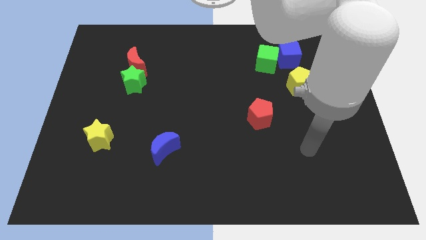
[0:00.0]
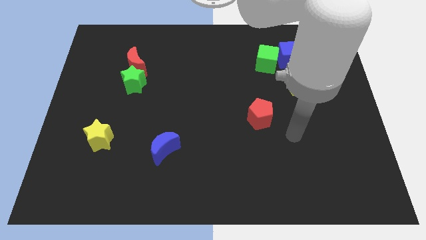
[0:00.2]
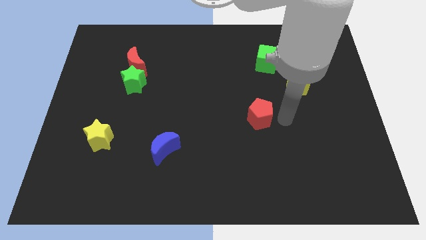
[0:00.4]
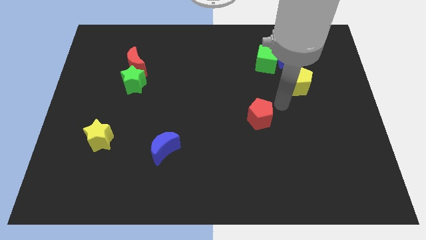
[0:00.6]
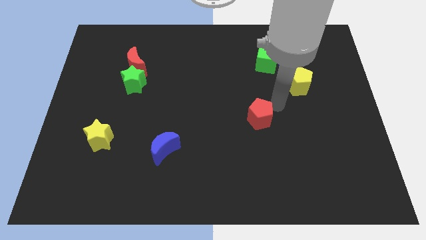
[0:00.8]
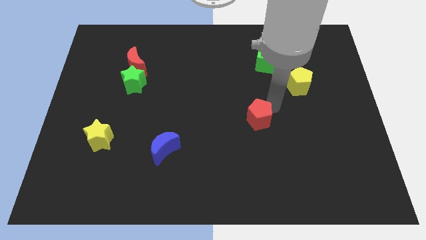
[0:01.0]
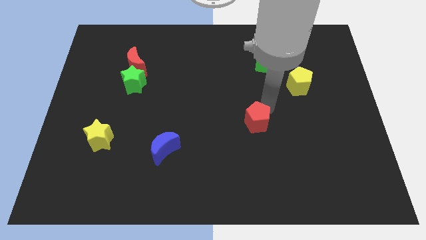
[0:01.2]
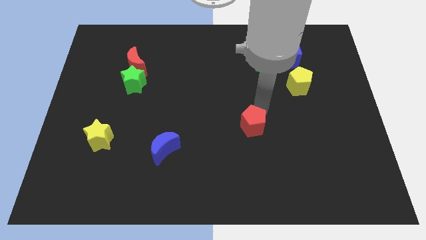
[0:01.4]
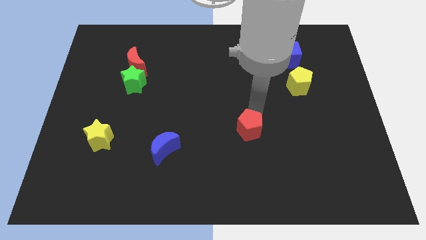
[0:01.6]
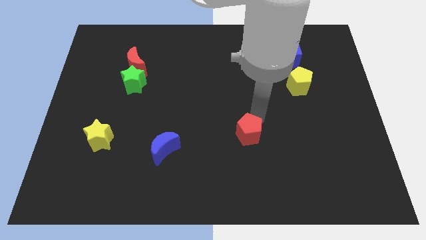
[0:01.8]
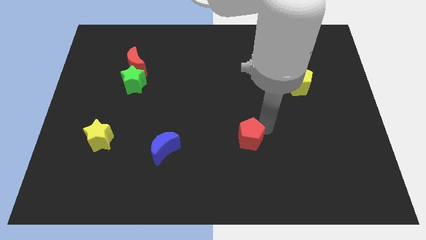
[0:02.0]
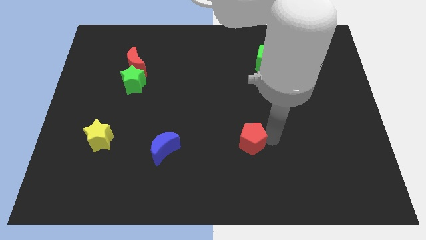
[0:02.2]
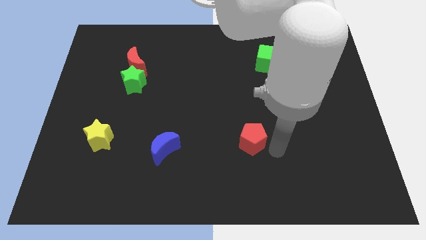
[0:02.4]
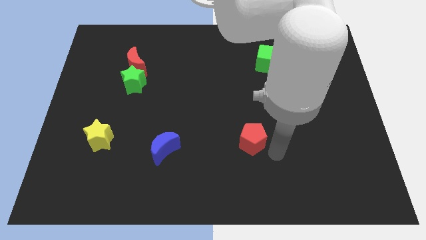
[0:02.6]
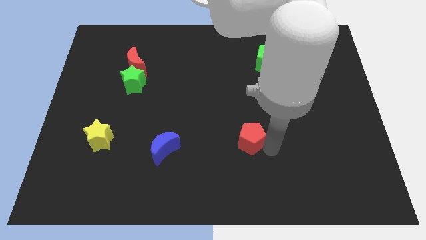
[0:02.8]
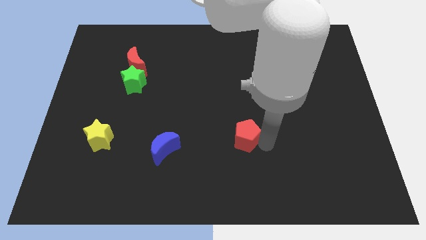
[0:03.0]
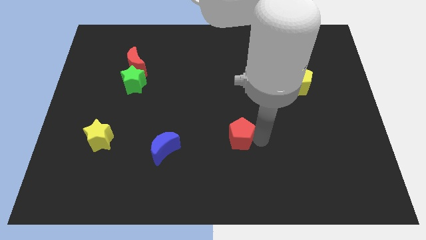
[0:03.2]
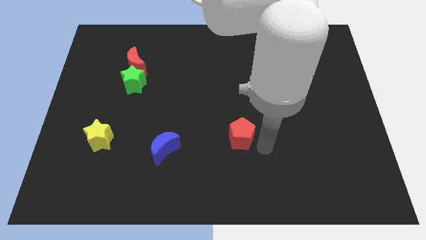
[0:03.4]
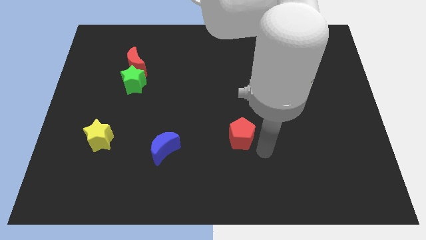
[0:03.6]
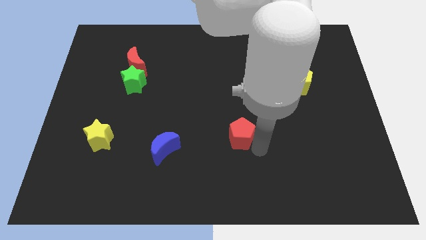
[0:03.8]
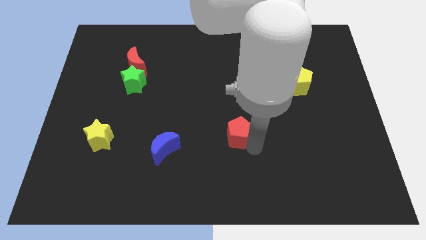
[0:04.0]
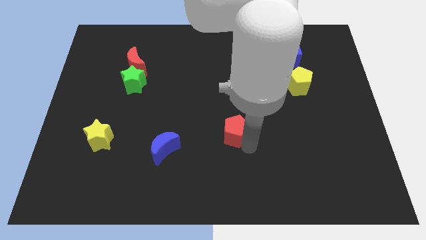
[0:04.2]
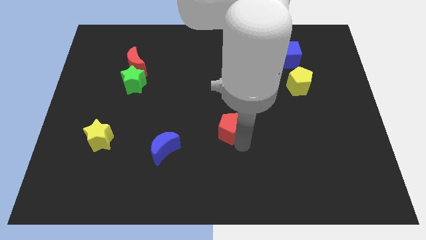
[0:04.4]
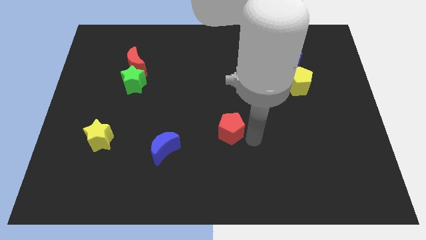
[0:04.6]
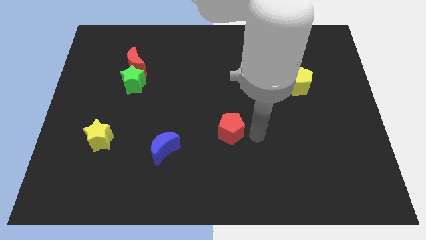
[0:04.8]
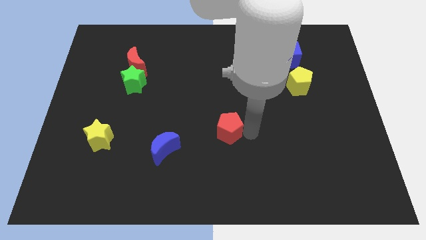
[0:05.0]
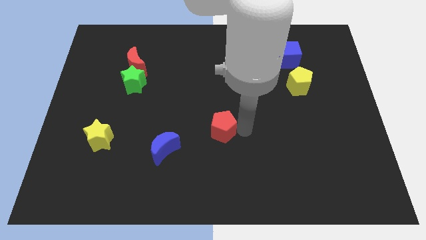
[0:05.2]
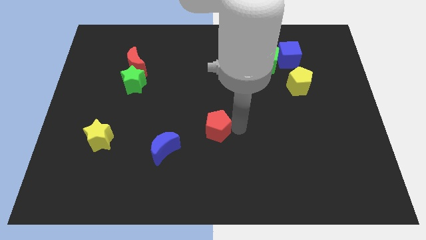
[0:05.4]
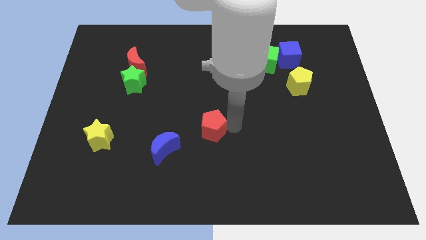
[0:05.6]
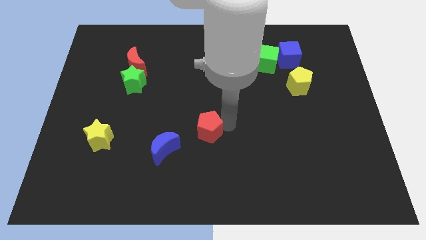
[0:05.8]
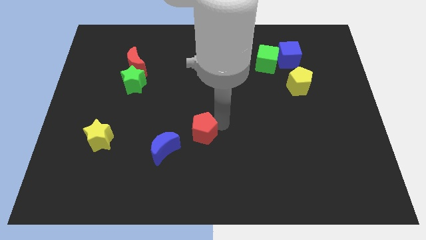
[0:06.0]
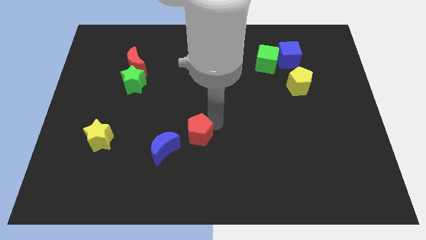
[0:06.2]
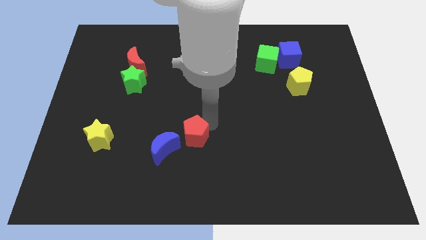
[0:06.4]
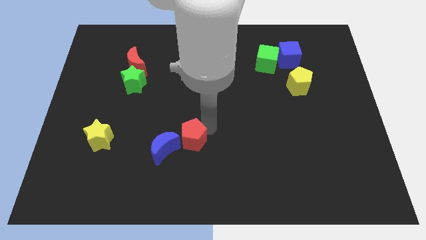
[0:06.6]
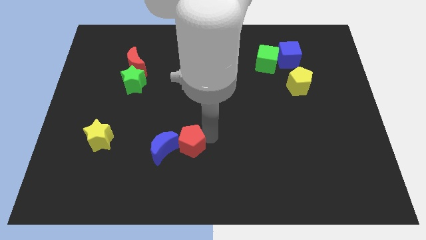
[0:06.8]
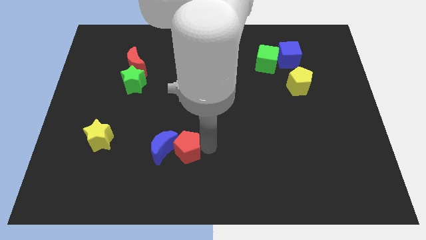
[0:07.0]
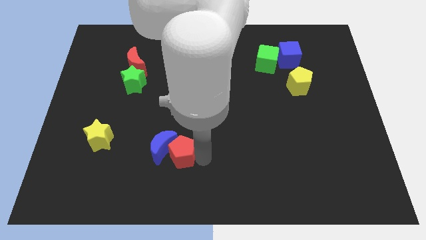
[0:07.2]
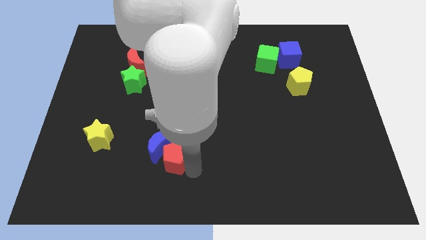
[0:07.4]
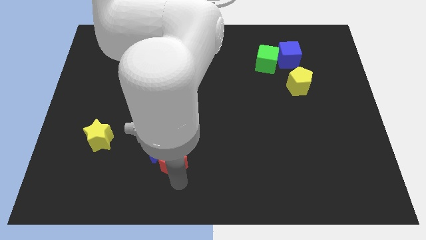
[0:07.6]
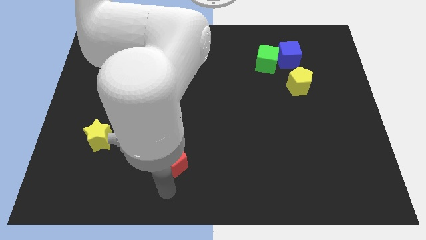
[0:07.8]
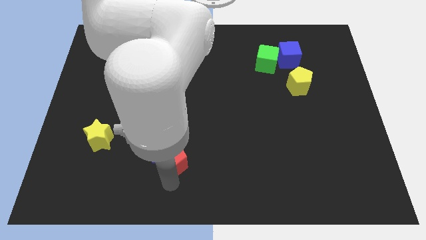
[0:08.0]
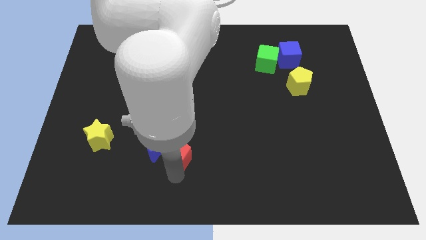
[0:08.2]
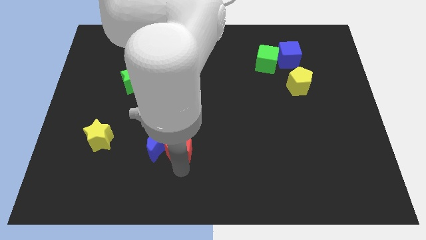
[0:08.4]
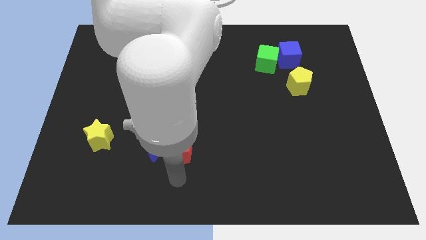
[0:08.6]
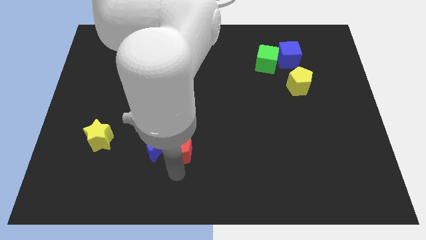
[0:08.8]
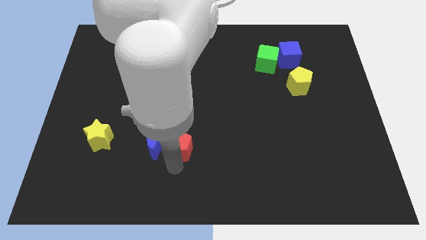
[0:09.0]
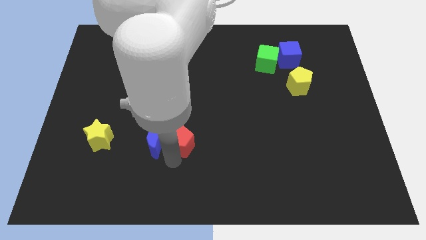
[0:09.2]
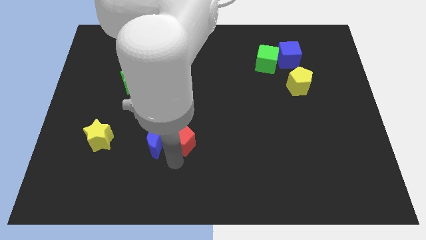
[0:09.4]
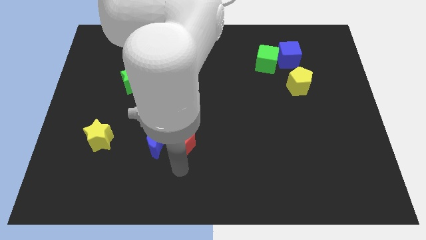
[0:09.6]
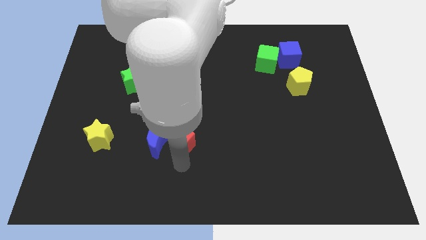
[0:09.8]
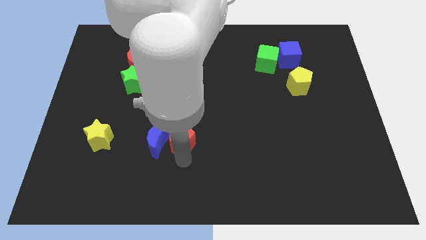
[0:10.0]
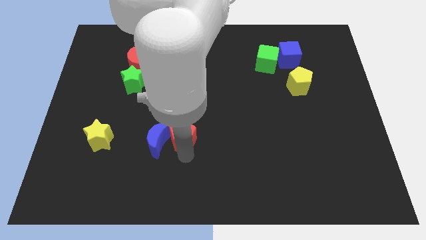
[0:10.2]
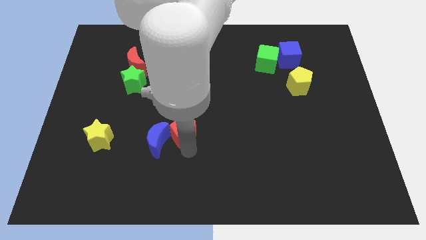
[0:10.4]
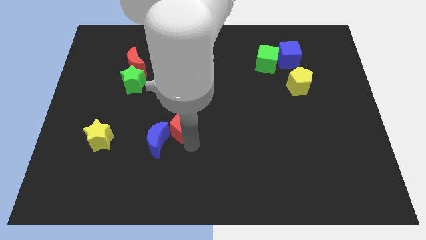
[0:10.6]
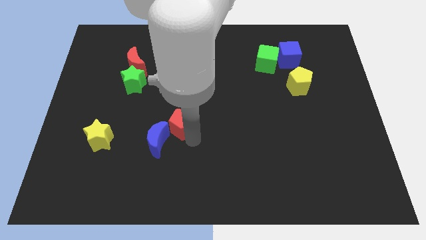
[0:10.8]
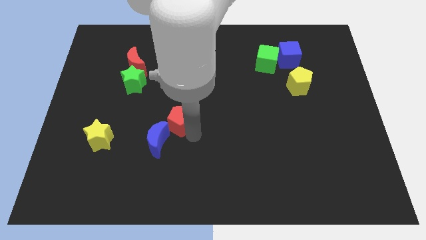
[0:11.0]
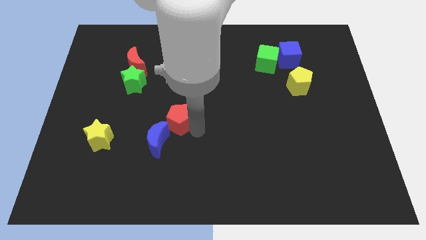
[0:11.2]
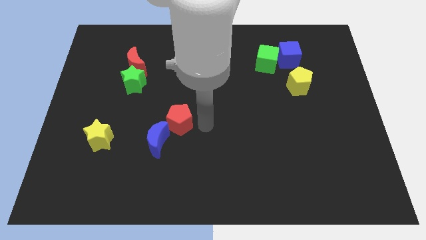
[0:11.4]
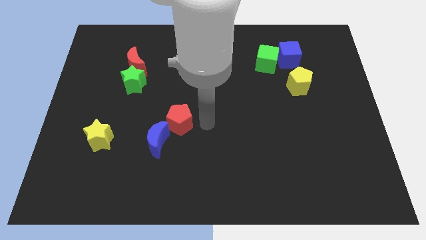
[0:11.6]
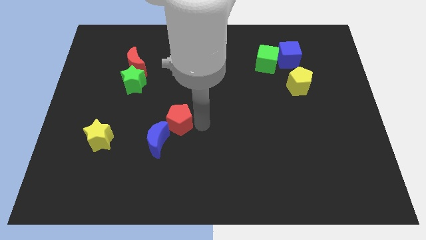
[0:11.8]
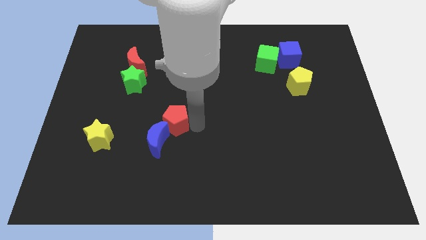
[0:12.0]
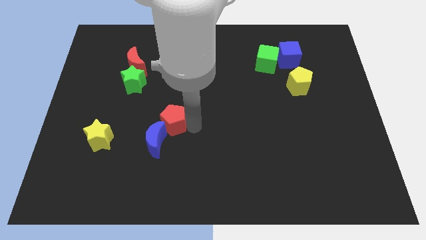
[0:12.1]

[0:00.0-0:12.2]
move the red pentagon to the left

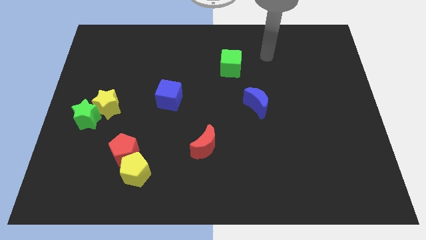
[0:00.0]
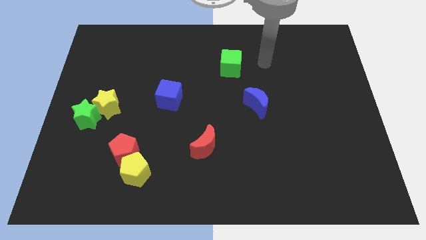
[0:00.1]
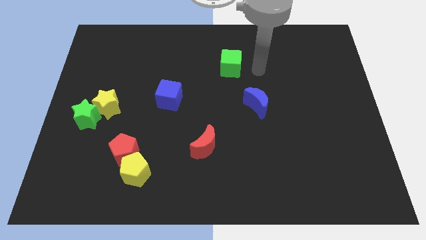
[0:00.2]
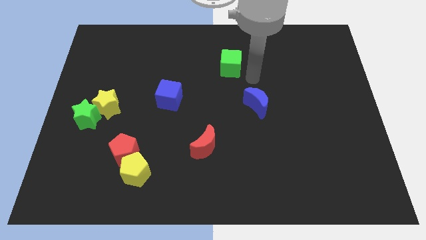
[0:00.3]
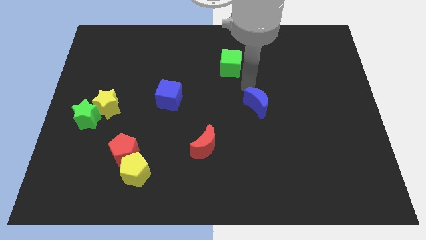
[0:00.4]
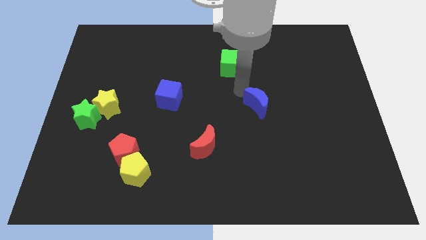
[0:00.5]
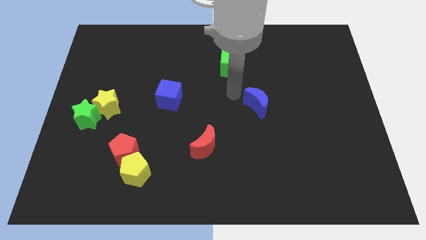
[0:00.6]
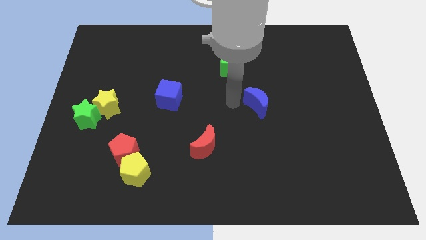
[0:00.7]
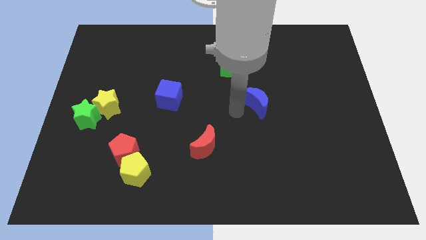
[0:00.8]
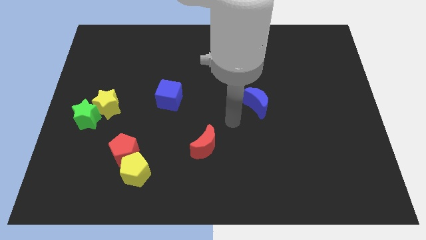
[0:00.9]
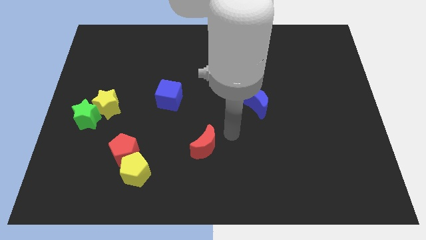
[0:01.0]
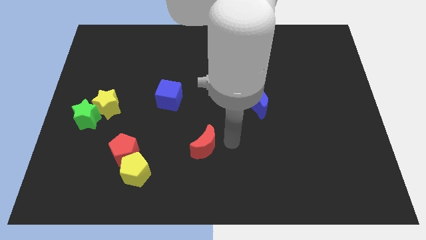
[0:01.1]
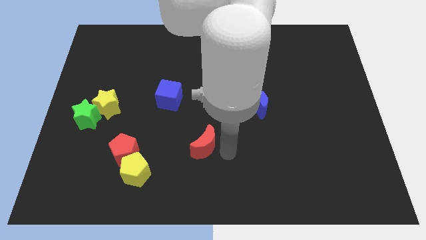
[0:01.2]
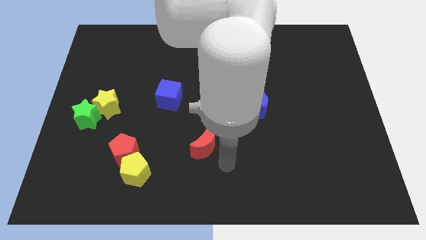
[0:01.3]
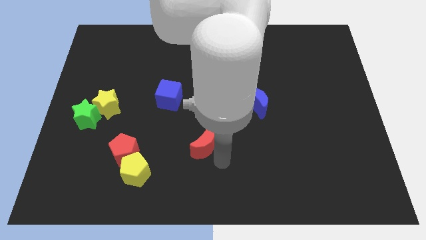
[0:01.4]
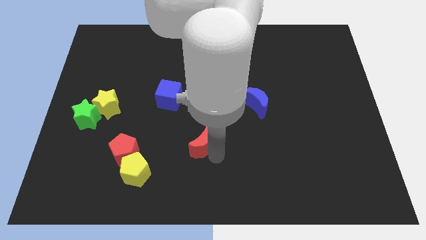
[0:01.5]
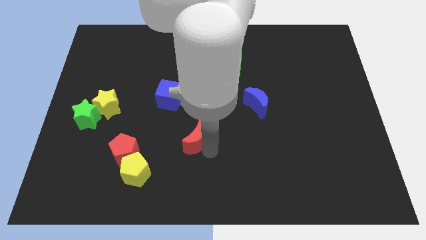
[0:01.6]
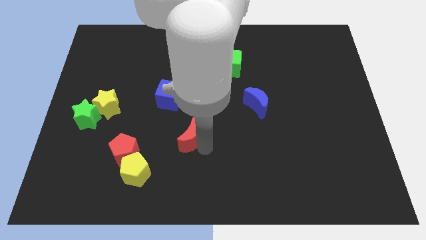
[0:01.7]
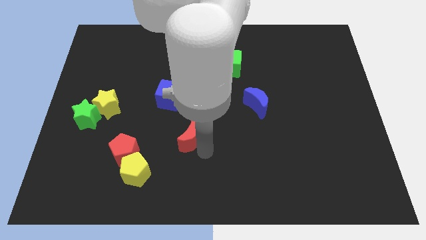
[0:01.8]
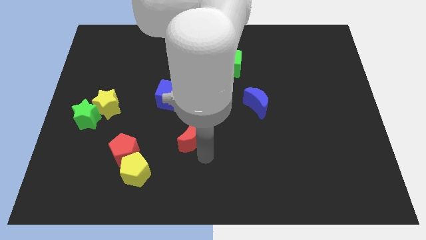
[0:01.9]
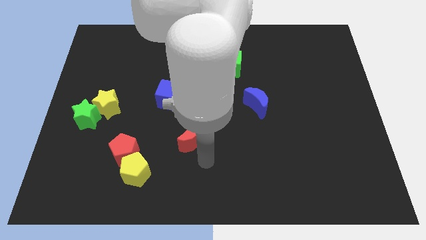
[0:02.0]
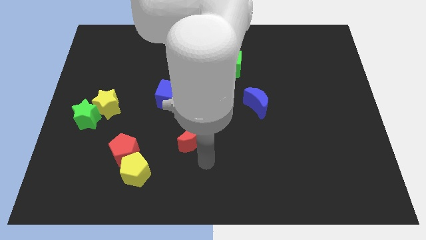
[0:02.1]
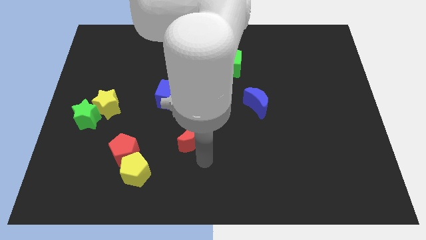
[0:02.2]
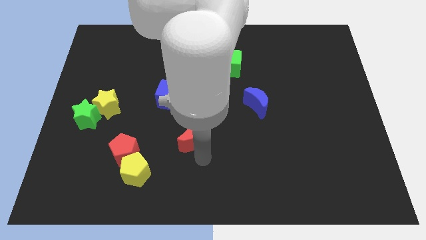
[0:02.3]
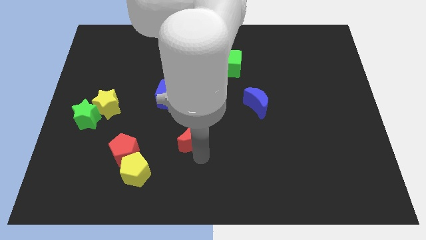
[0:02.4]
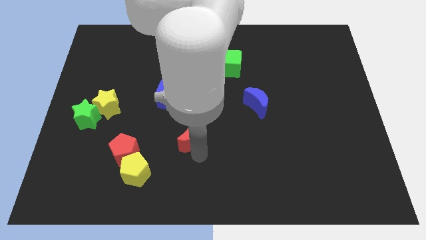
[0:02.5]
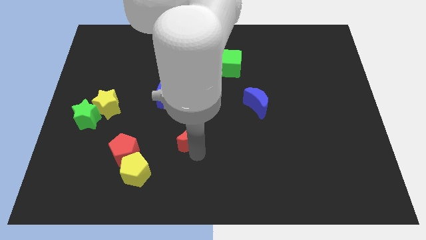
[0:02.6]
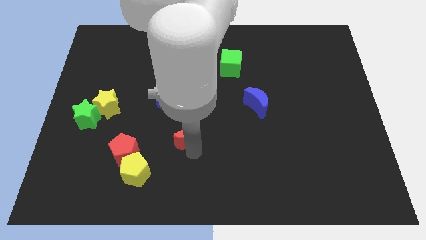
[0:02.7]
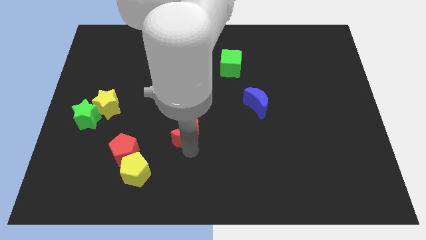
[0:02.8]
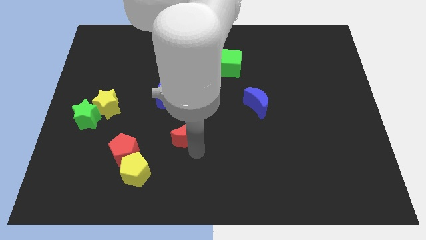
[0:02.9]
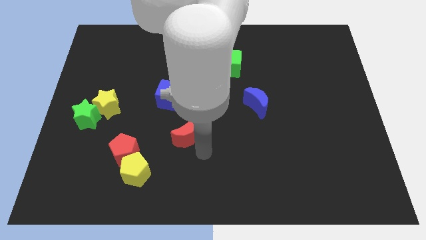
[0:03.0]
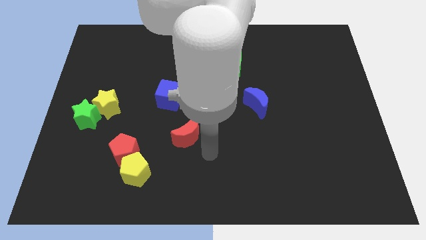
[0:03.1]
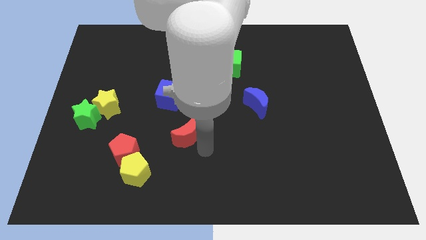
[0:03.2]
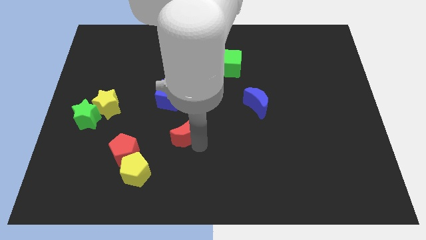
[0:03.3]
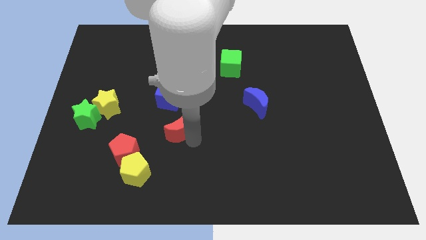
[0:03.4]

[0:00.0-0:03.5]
slide the red moon upwards and then to the left slightly
